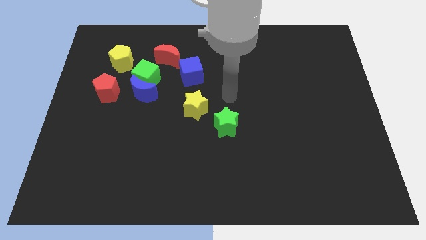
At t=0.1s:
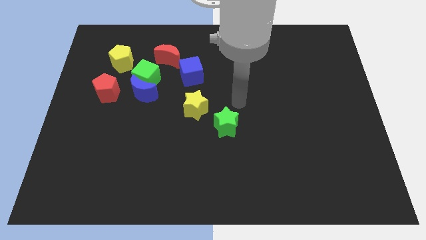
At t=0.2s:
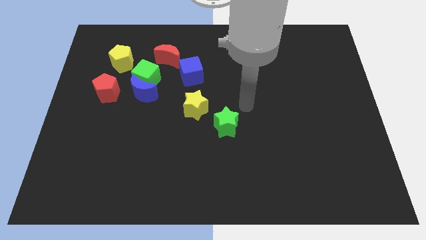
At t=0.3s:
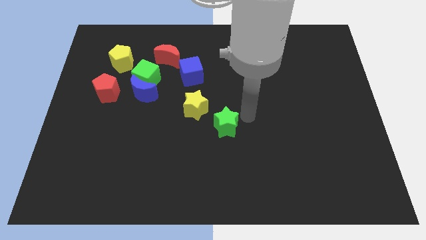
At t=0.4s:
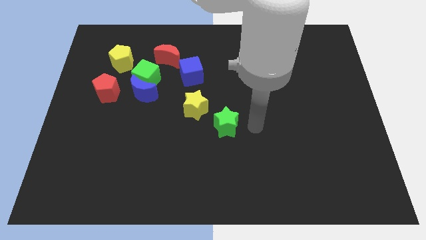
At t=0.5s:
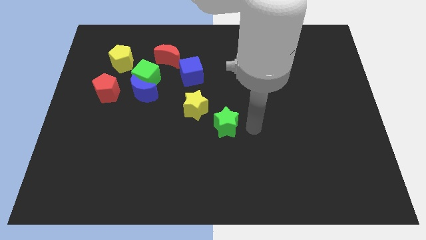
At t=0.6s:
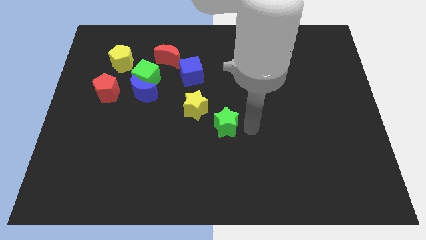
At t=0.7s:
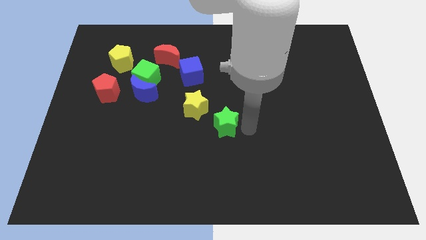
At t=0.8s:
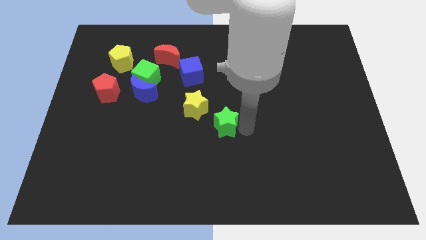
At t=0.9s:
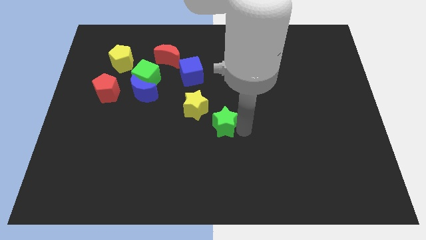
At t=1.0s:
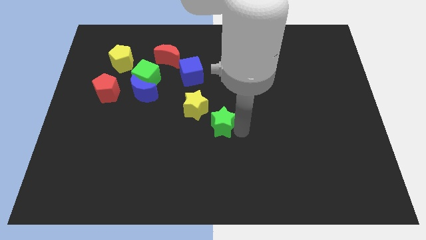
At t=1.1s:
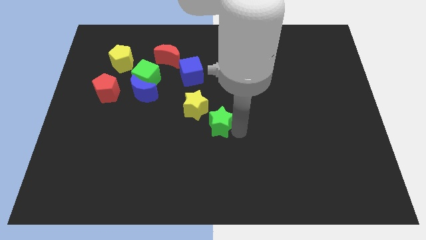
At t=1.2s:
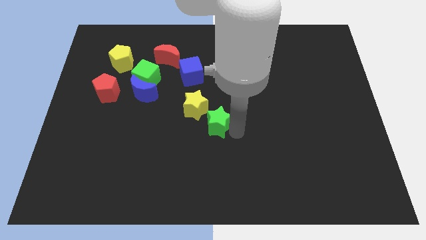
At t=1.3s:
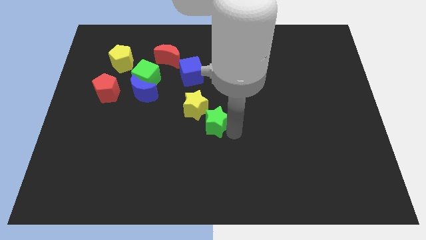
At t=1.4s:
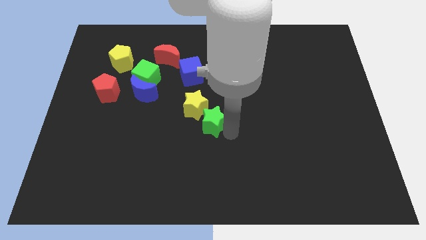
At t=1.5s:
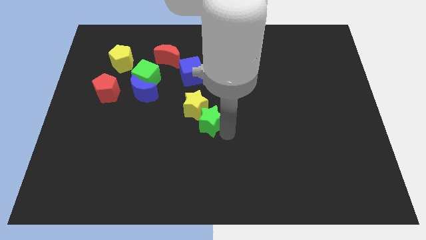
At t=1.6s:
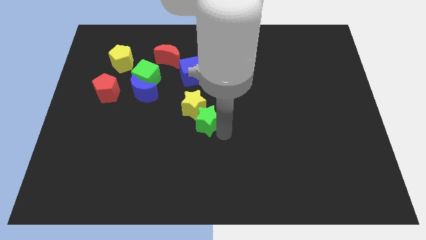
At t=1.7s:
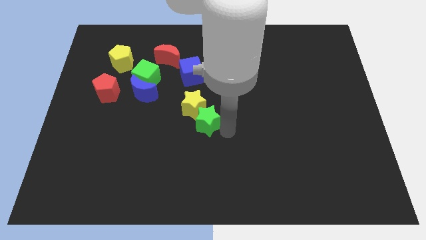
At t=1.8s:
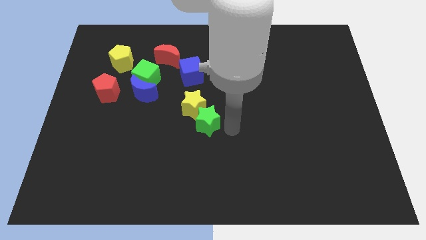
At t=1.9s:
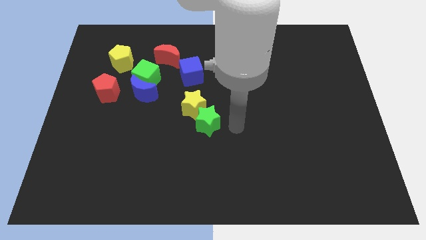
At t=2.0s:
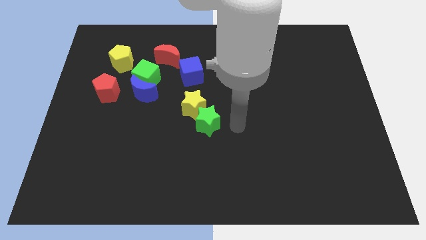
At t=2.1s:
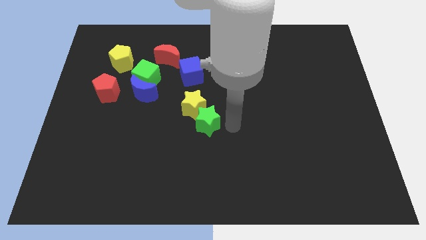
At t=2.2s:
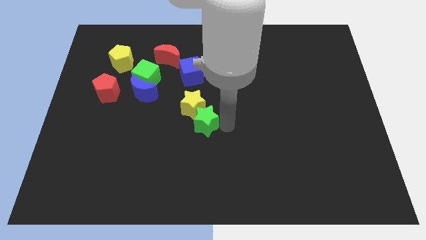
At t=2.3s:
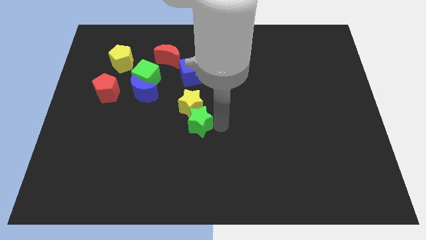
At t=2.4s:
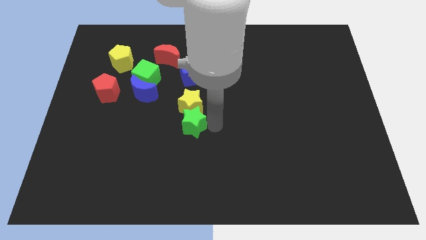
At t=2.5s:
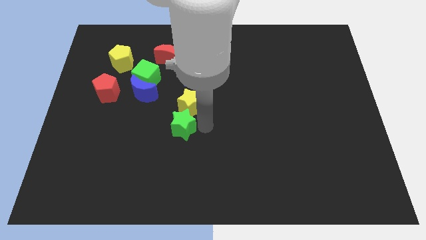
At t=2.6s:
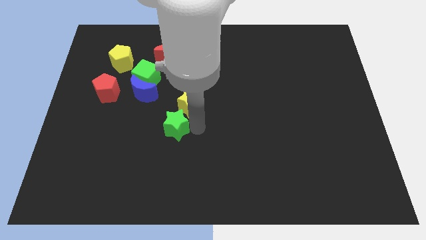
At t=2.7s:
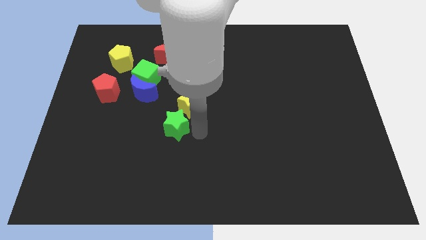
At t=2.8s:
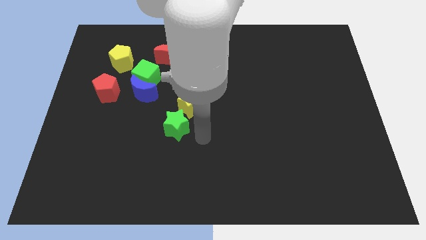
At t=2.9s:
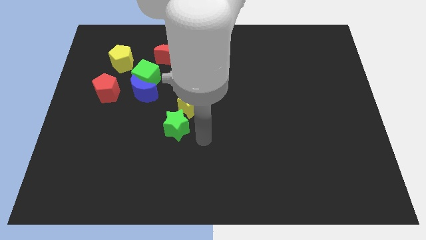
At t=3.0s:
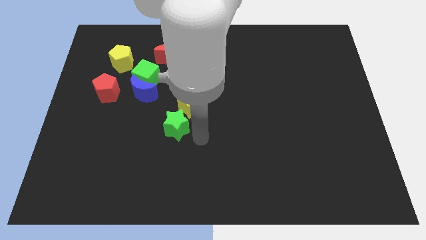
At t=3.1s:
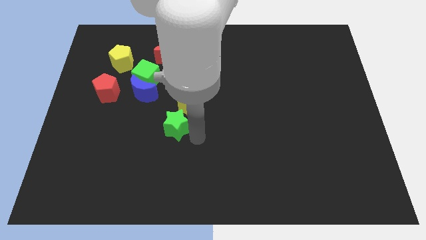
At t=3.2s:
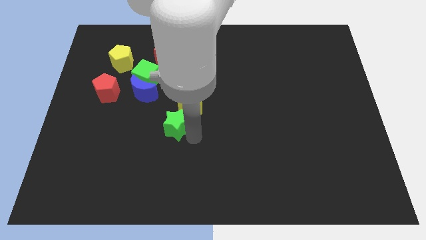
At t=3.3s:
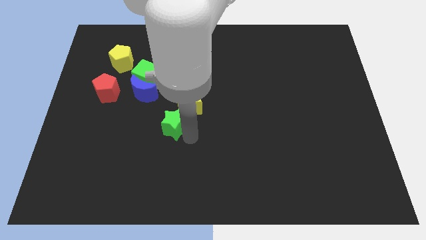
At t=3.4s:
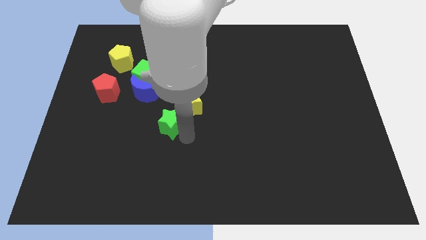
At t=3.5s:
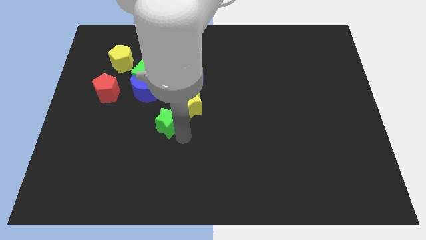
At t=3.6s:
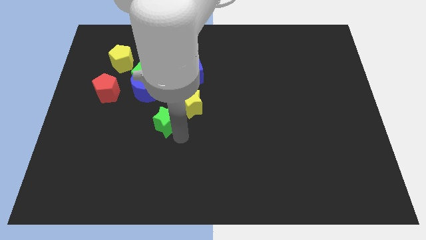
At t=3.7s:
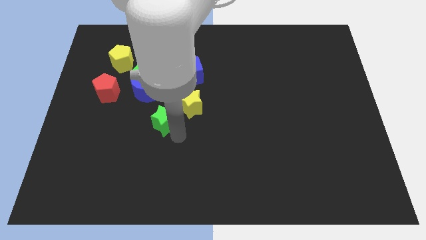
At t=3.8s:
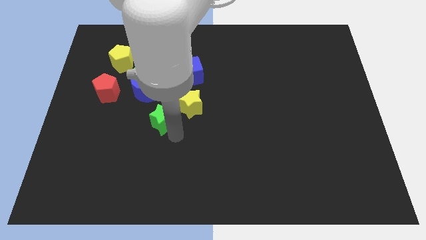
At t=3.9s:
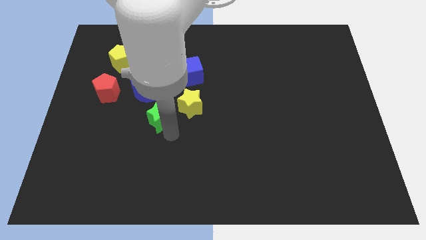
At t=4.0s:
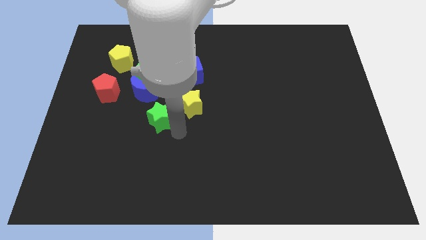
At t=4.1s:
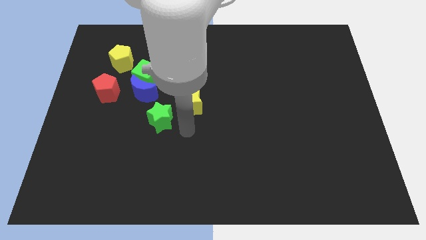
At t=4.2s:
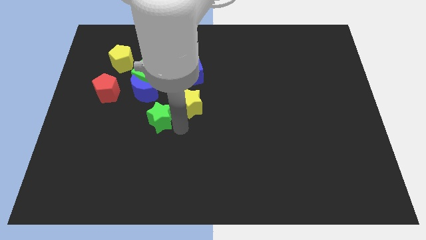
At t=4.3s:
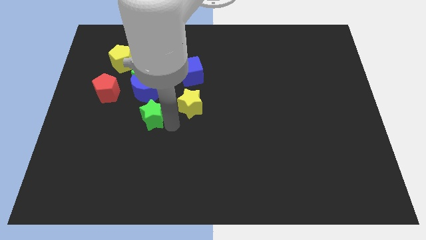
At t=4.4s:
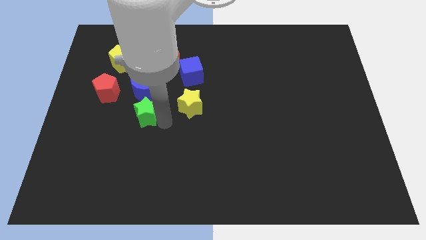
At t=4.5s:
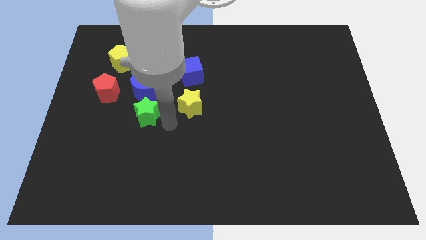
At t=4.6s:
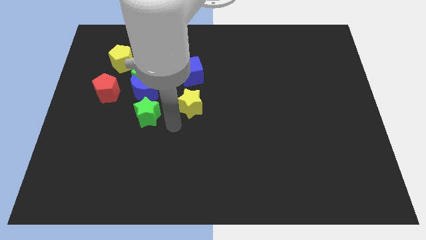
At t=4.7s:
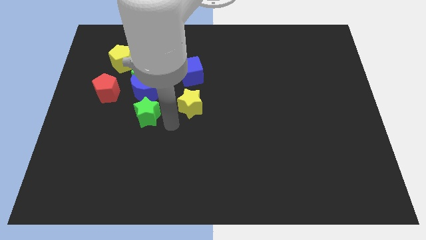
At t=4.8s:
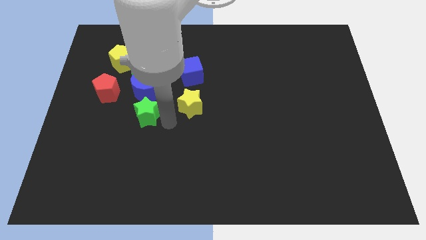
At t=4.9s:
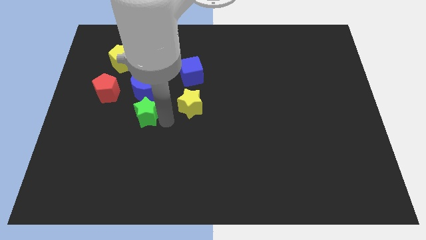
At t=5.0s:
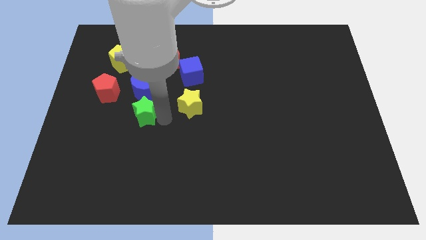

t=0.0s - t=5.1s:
move the green star diagonally down and to the right of the red pentagon

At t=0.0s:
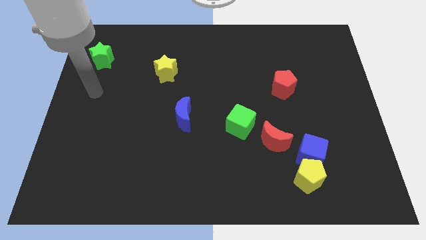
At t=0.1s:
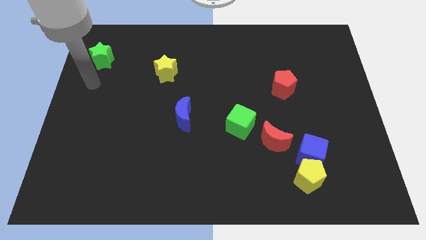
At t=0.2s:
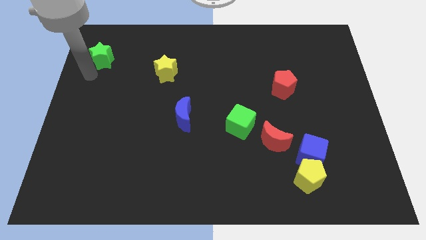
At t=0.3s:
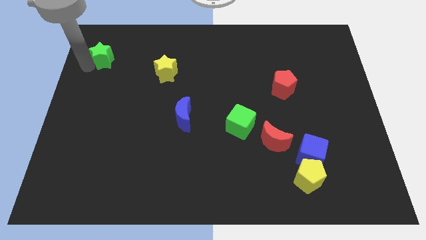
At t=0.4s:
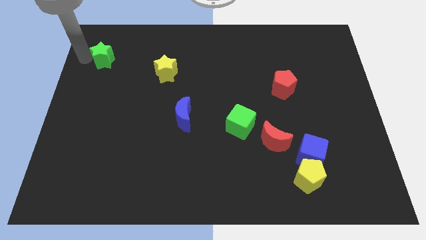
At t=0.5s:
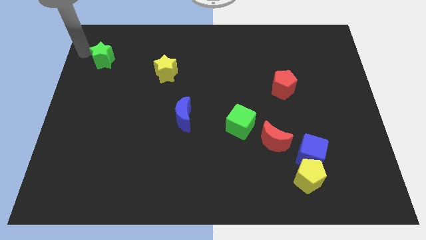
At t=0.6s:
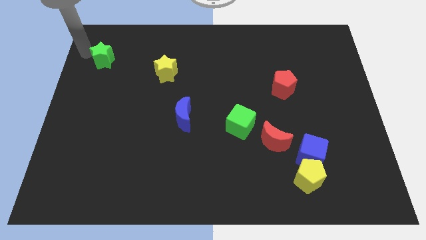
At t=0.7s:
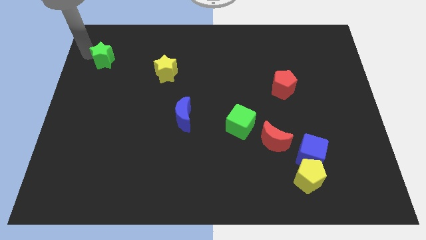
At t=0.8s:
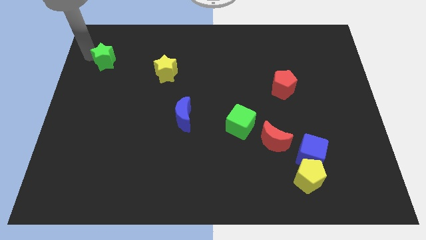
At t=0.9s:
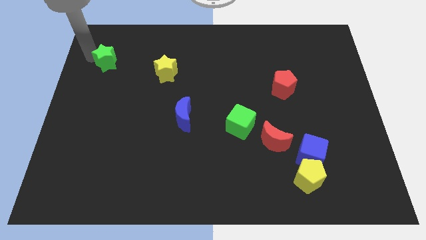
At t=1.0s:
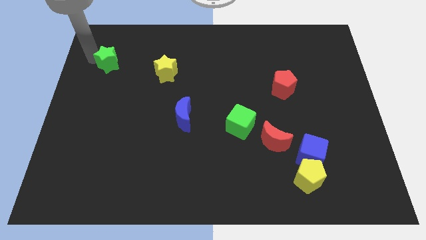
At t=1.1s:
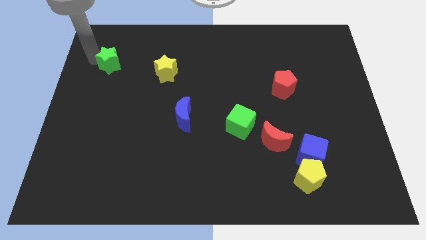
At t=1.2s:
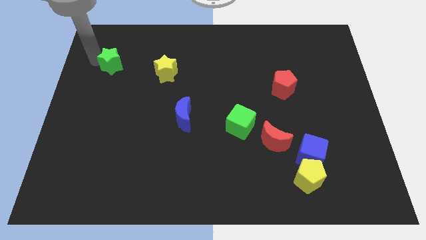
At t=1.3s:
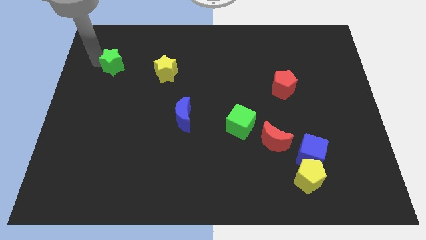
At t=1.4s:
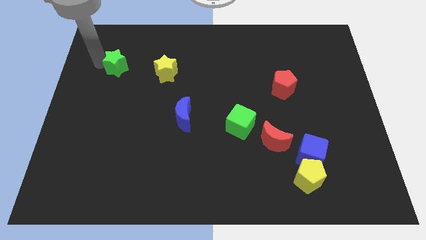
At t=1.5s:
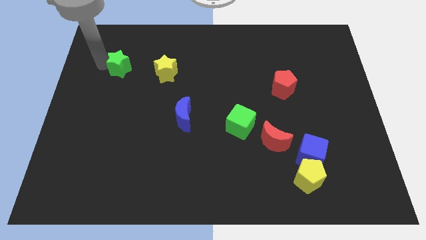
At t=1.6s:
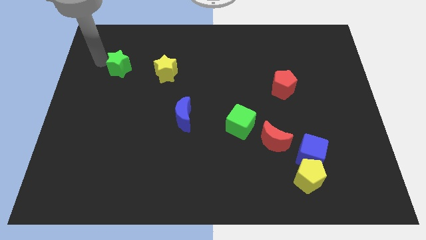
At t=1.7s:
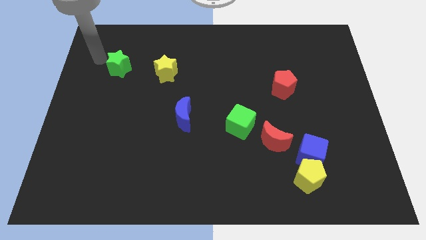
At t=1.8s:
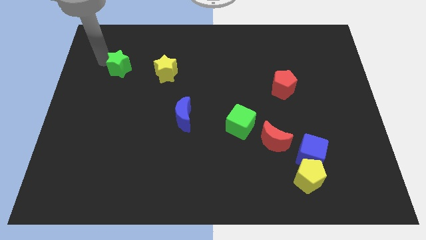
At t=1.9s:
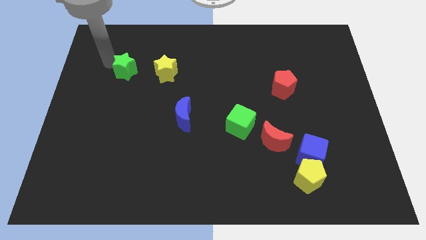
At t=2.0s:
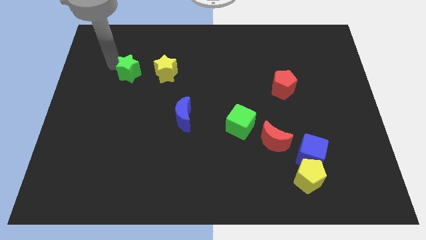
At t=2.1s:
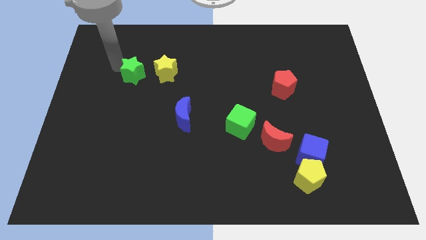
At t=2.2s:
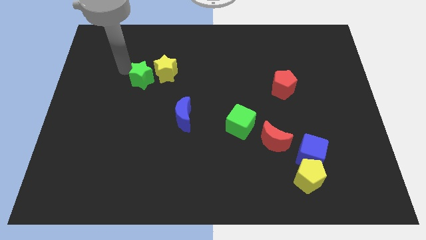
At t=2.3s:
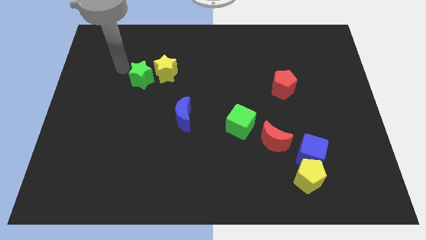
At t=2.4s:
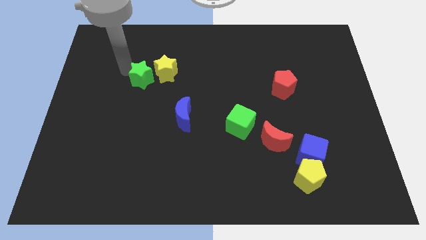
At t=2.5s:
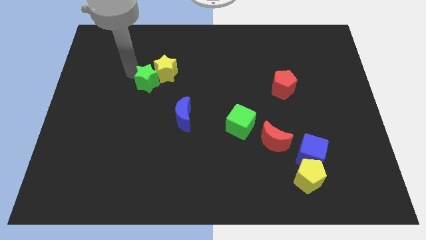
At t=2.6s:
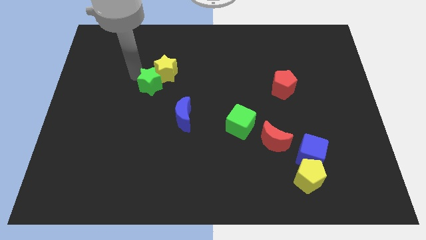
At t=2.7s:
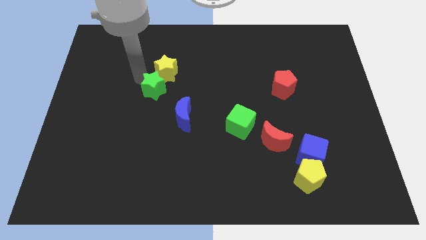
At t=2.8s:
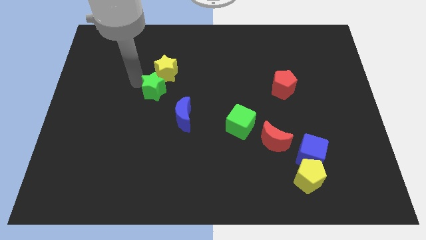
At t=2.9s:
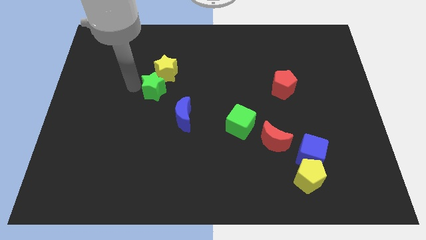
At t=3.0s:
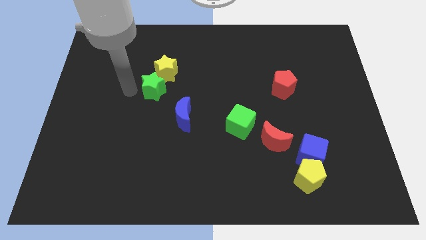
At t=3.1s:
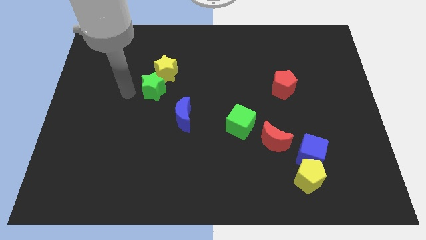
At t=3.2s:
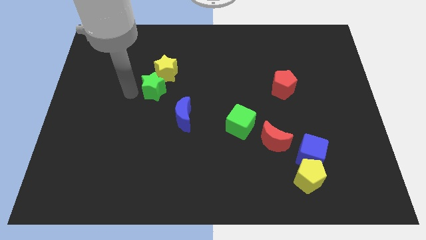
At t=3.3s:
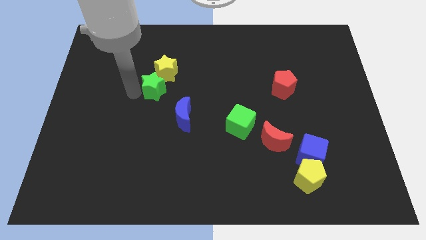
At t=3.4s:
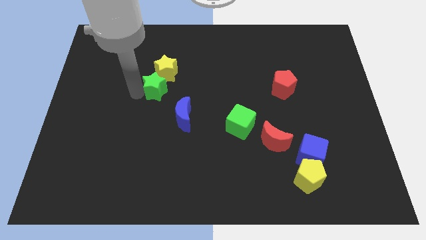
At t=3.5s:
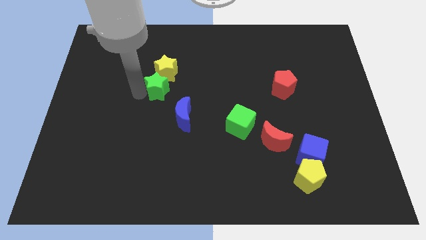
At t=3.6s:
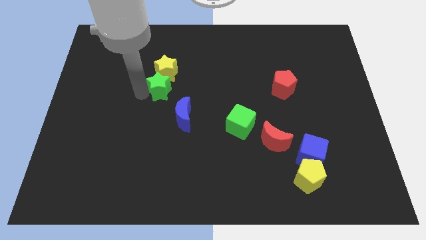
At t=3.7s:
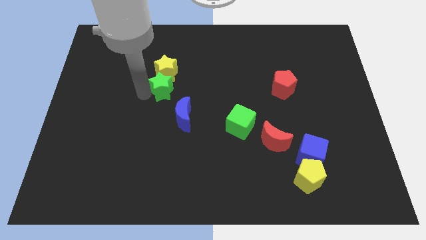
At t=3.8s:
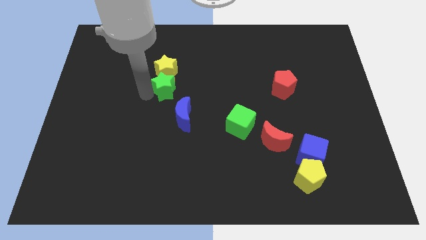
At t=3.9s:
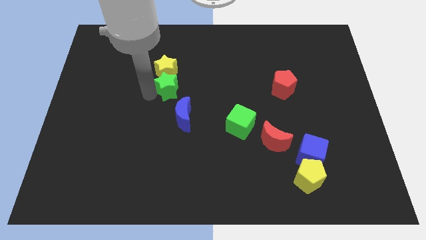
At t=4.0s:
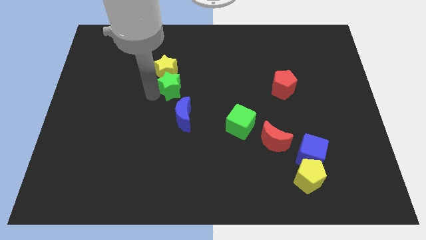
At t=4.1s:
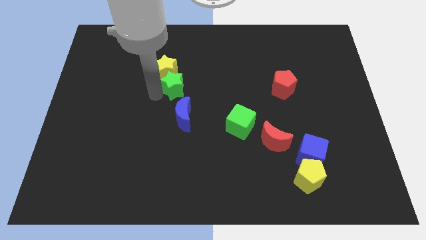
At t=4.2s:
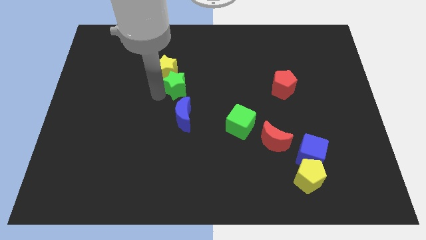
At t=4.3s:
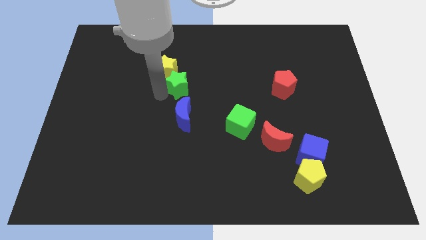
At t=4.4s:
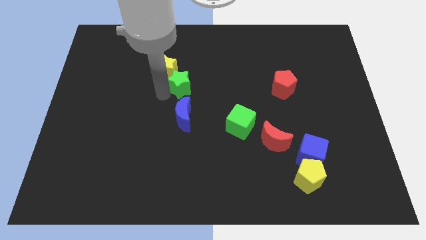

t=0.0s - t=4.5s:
move the green star to the right side of the yellow star
